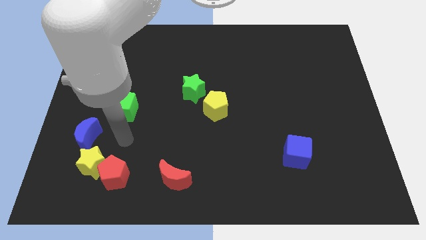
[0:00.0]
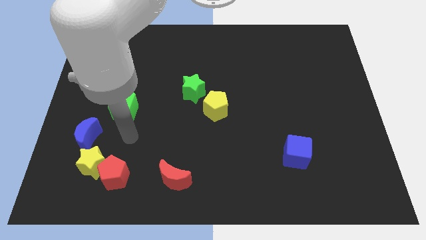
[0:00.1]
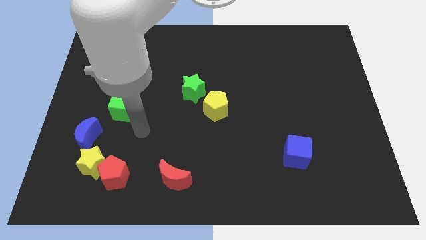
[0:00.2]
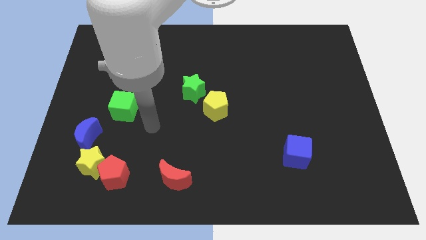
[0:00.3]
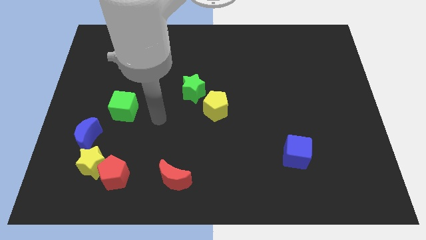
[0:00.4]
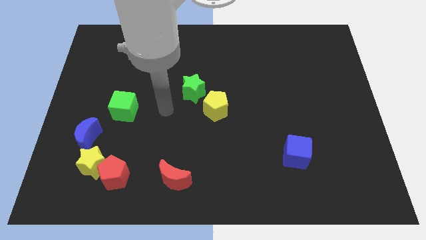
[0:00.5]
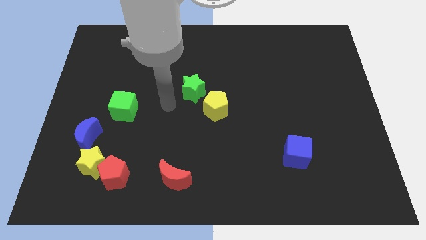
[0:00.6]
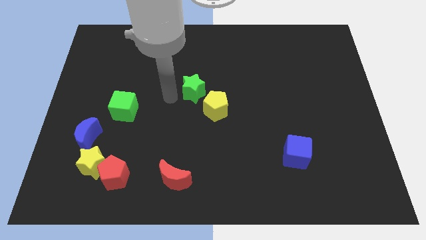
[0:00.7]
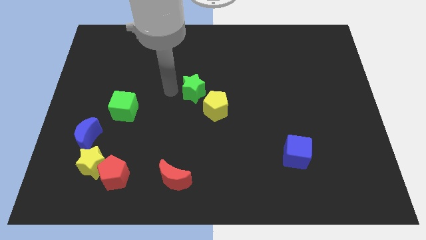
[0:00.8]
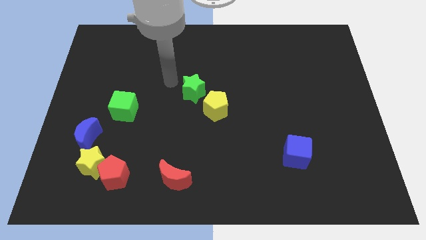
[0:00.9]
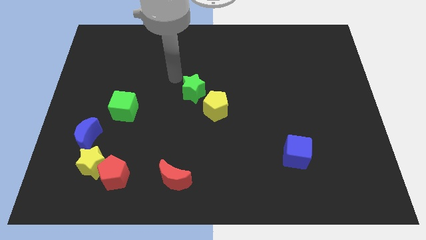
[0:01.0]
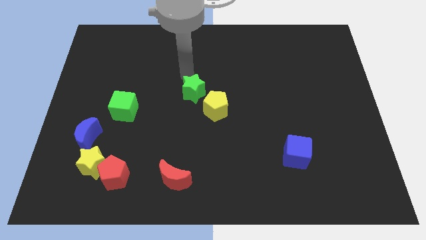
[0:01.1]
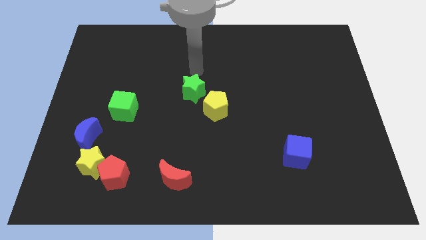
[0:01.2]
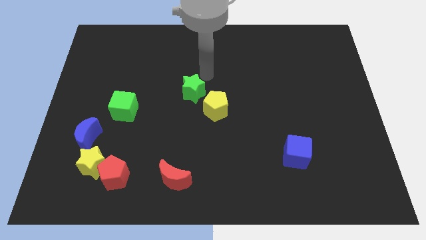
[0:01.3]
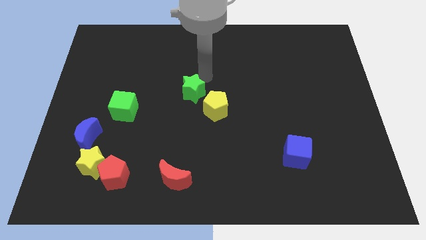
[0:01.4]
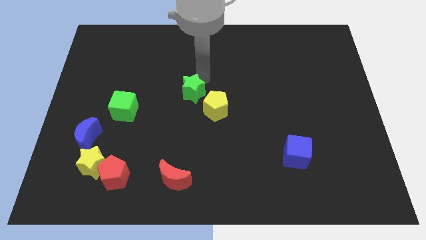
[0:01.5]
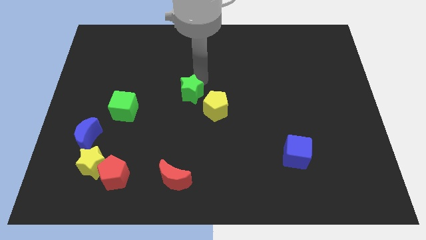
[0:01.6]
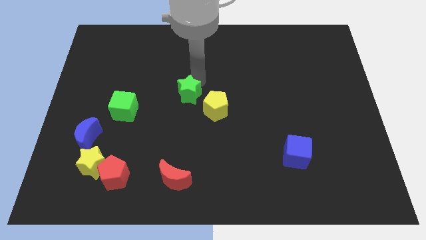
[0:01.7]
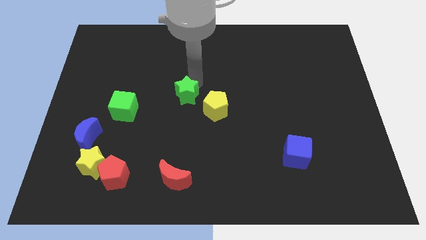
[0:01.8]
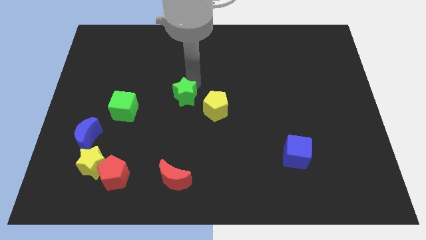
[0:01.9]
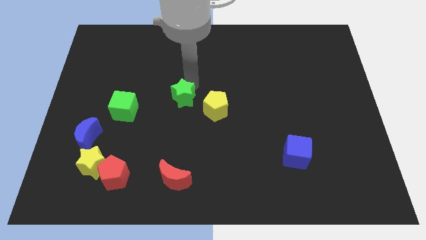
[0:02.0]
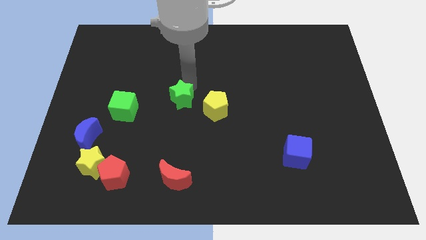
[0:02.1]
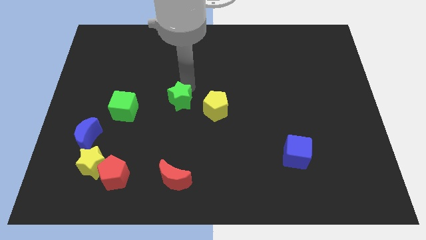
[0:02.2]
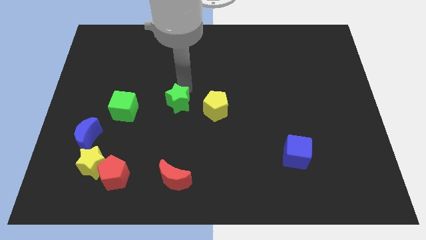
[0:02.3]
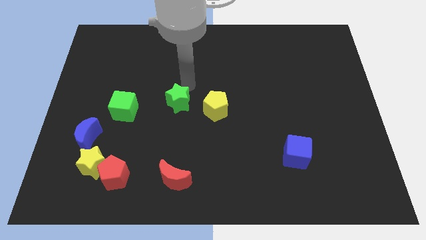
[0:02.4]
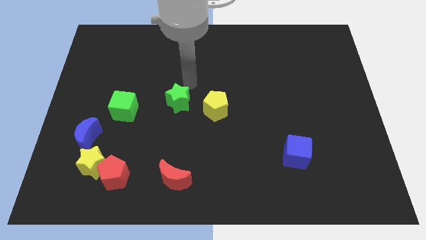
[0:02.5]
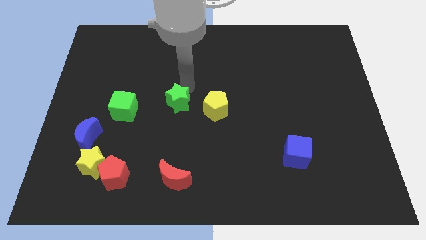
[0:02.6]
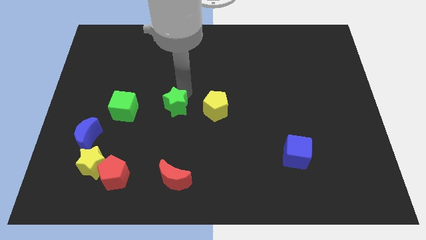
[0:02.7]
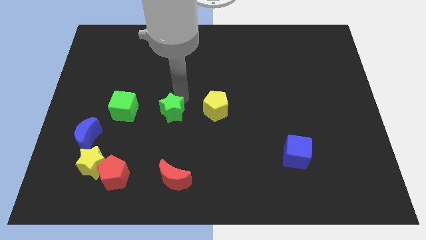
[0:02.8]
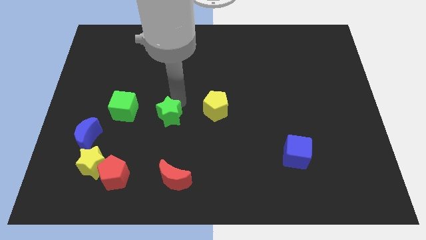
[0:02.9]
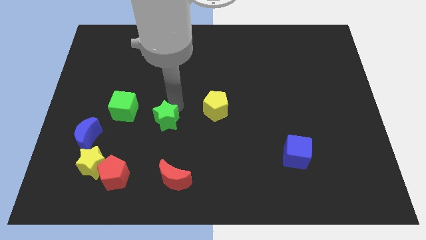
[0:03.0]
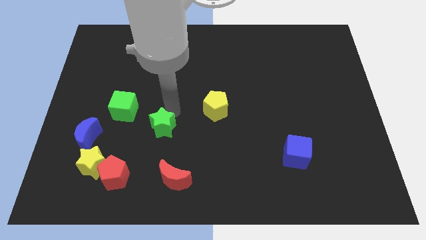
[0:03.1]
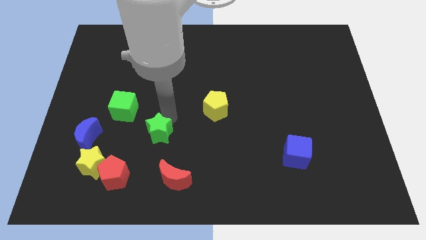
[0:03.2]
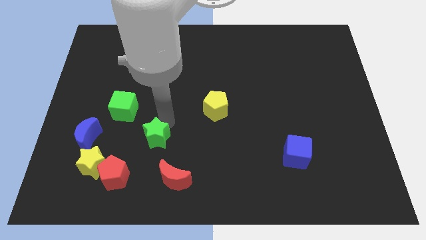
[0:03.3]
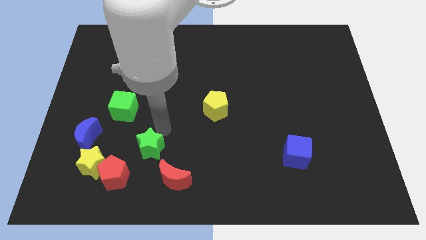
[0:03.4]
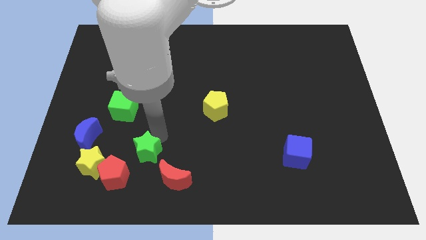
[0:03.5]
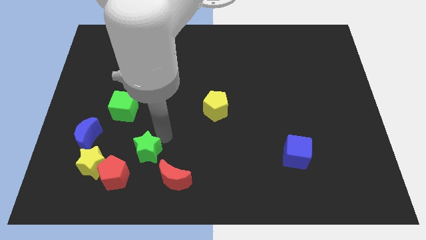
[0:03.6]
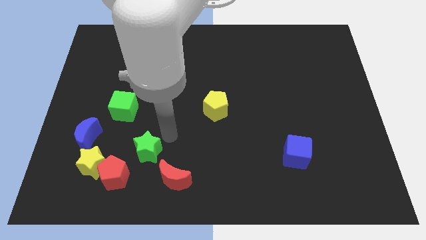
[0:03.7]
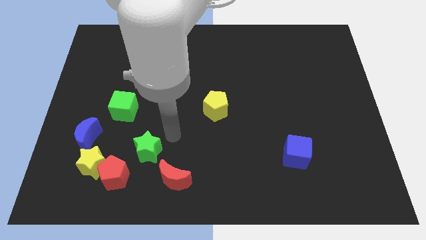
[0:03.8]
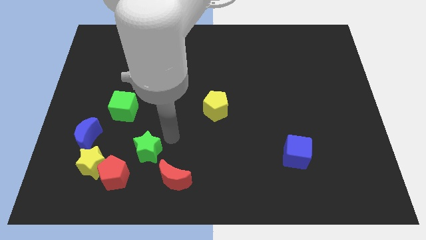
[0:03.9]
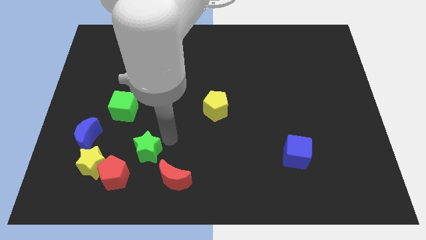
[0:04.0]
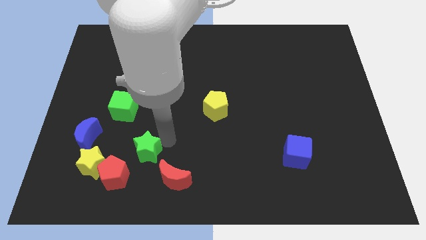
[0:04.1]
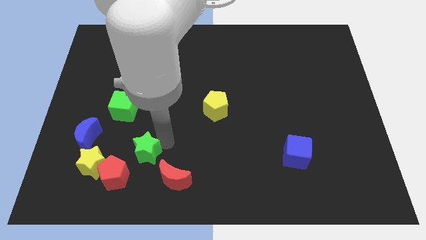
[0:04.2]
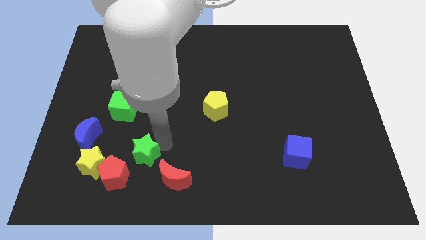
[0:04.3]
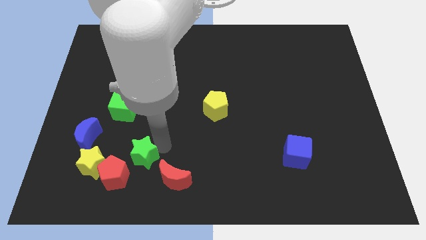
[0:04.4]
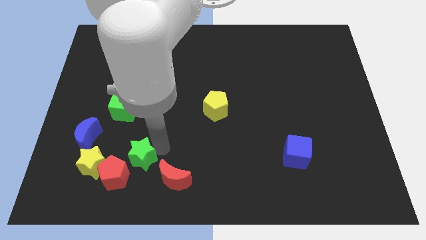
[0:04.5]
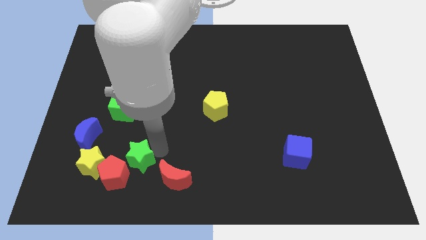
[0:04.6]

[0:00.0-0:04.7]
put the green star to the red pentagon

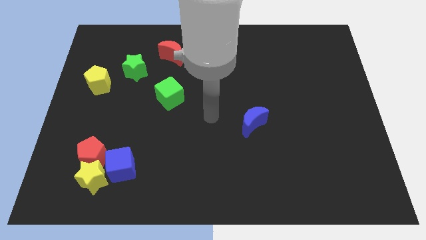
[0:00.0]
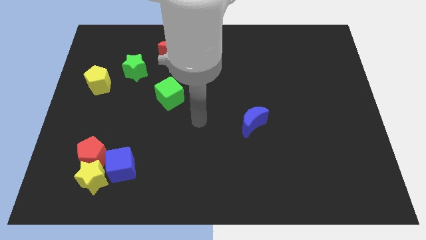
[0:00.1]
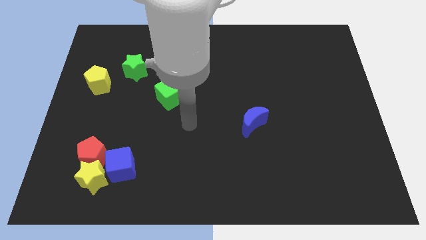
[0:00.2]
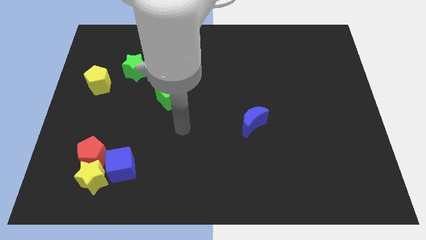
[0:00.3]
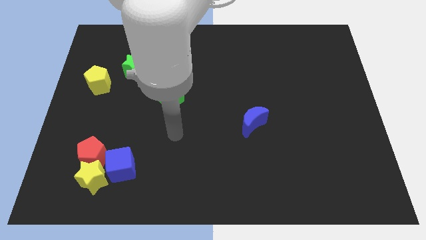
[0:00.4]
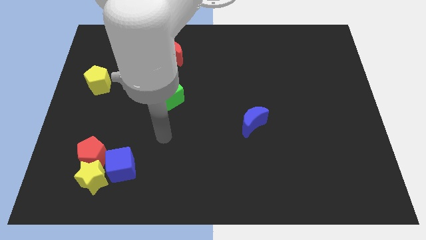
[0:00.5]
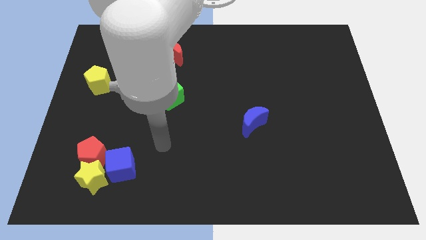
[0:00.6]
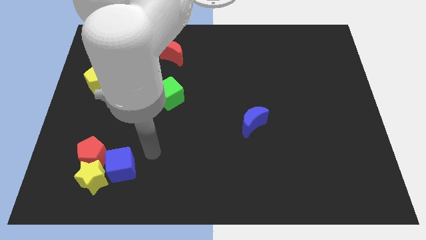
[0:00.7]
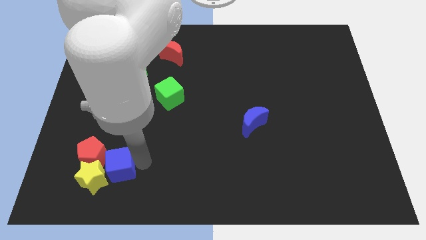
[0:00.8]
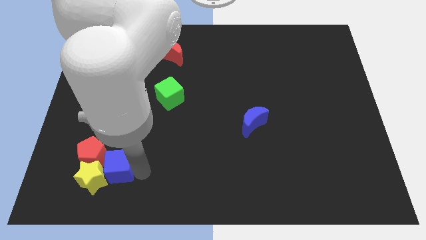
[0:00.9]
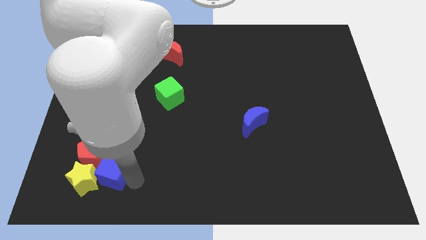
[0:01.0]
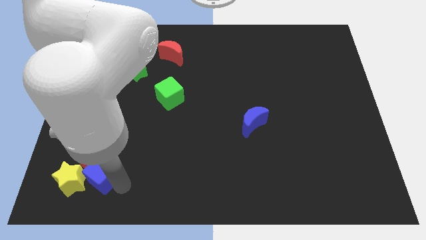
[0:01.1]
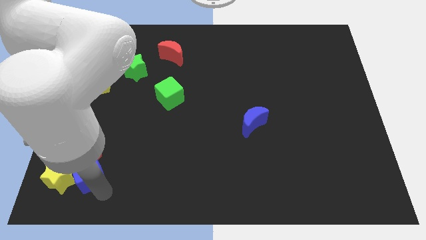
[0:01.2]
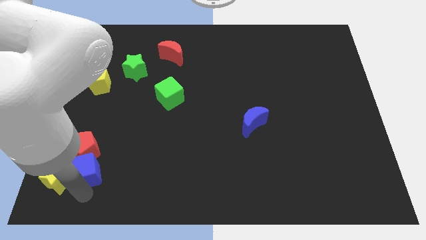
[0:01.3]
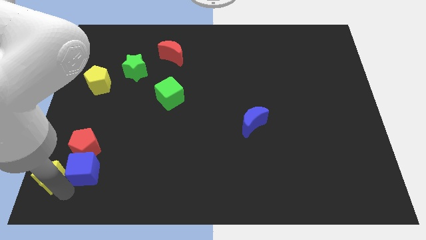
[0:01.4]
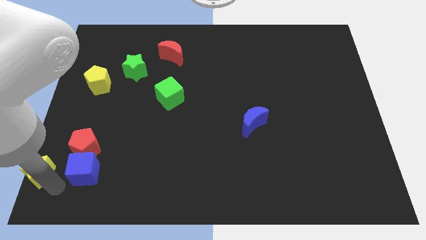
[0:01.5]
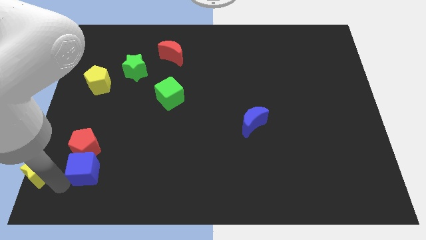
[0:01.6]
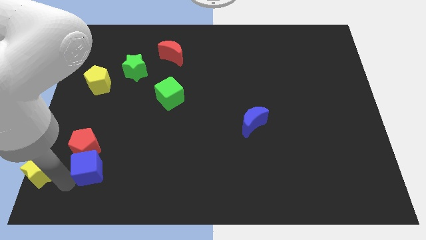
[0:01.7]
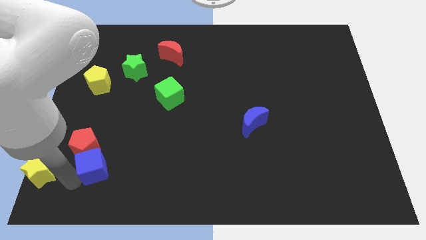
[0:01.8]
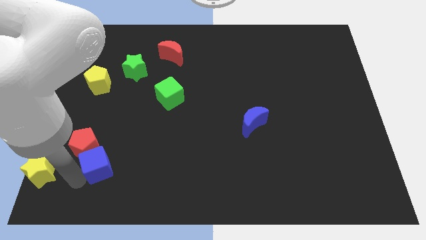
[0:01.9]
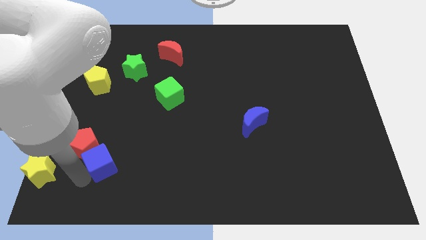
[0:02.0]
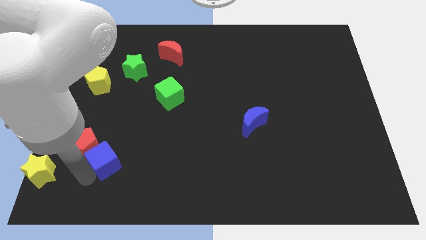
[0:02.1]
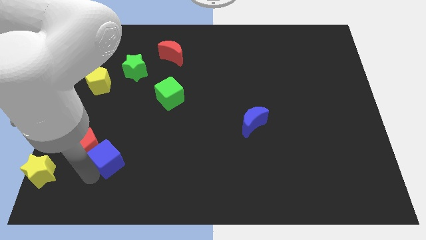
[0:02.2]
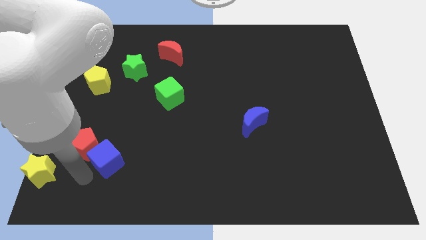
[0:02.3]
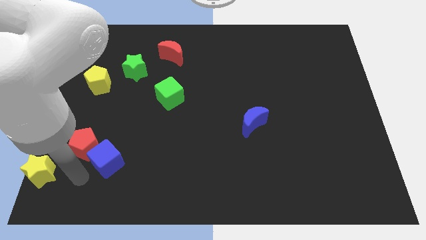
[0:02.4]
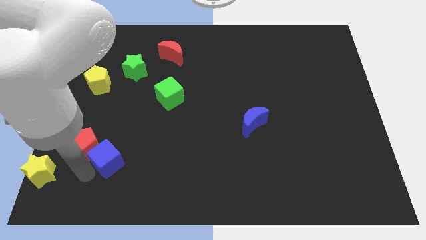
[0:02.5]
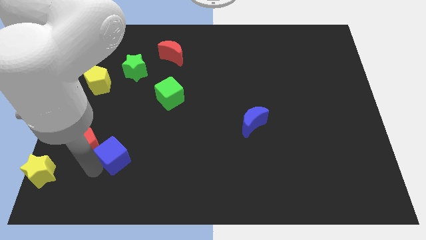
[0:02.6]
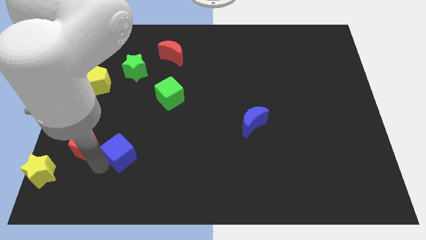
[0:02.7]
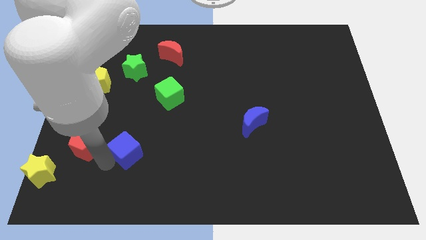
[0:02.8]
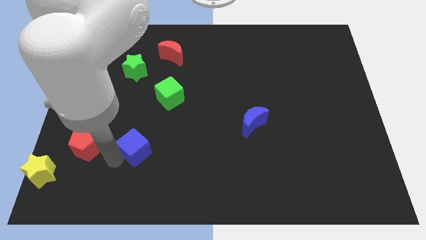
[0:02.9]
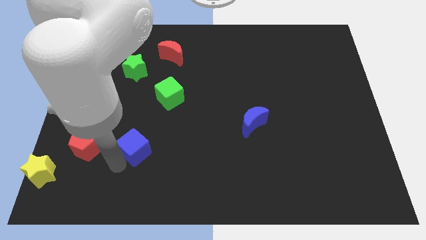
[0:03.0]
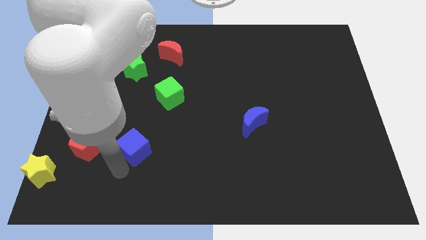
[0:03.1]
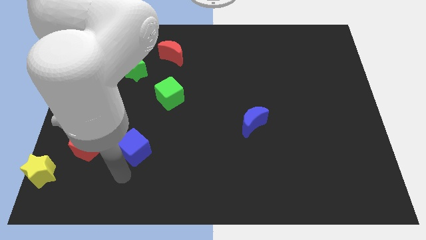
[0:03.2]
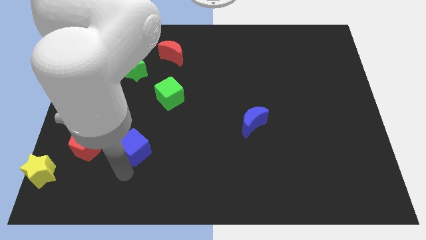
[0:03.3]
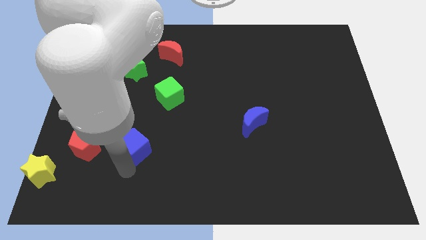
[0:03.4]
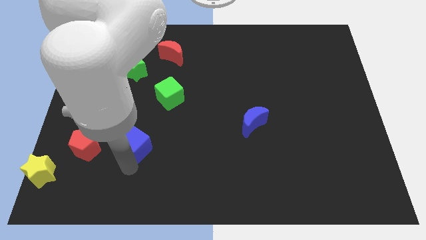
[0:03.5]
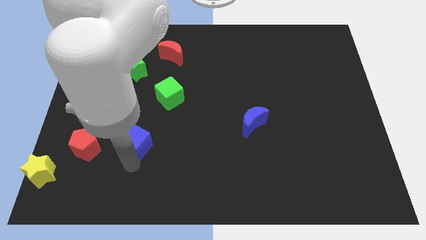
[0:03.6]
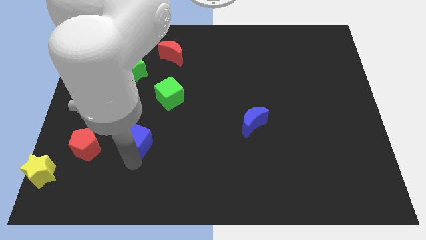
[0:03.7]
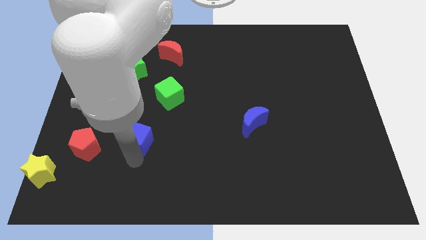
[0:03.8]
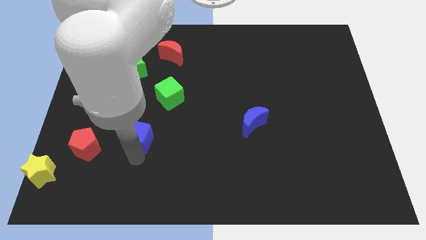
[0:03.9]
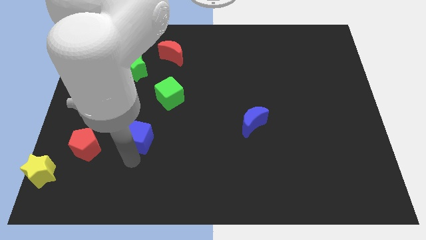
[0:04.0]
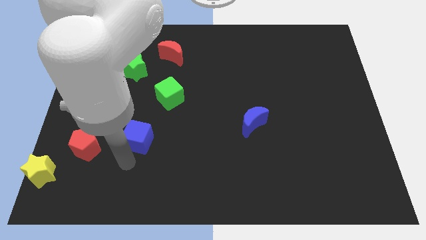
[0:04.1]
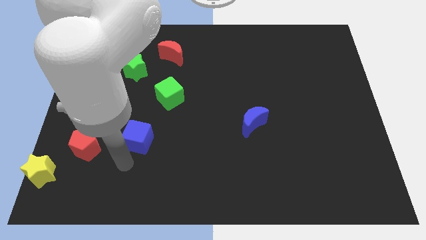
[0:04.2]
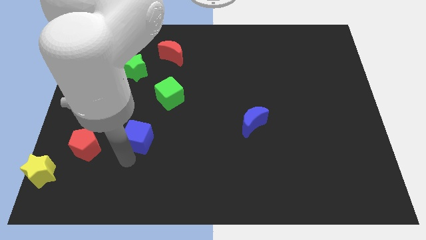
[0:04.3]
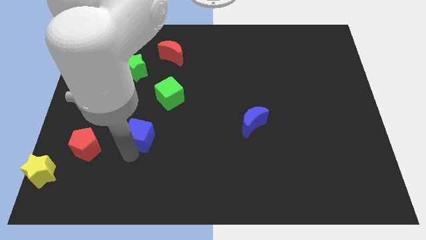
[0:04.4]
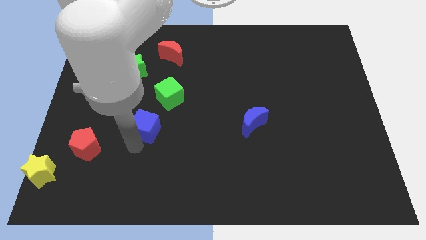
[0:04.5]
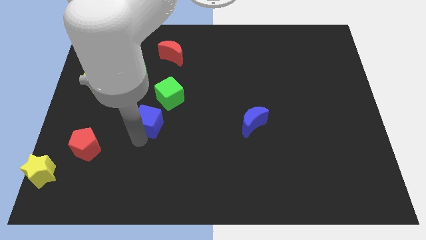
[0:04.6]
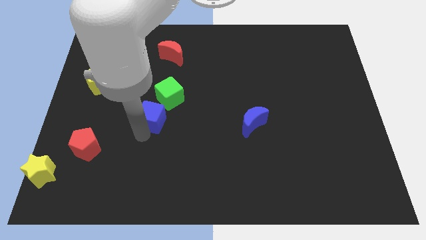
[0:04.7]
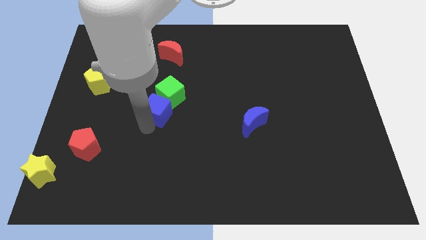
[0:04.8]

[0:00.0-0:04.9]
slide the blue cube to the green cube
